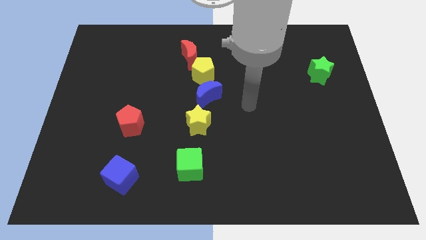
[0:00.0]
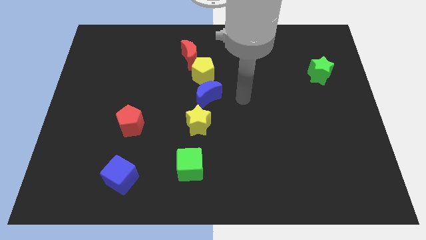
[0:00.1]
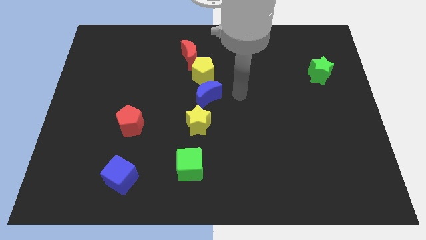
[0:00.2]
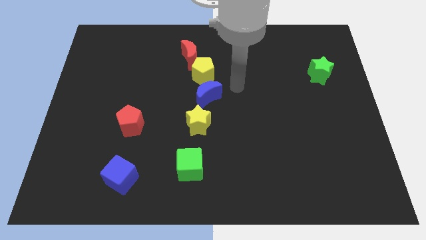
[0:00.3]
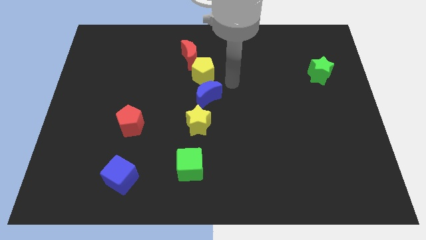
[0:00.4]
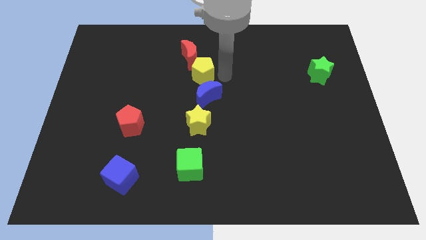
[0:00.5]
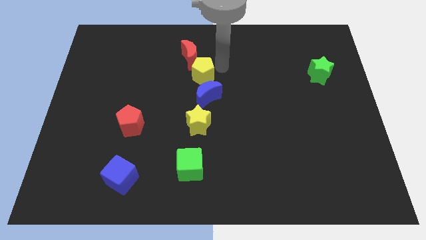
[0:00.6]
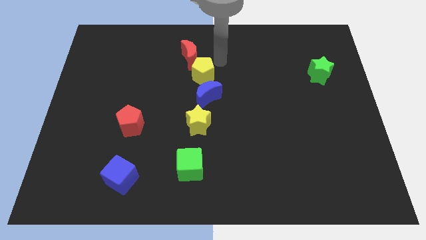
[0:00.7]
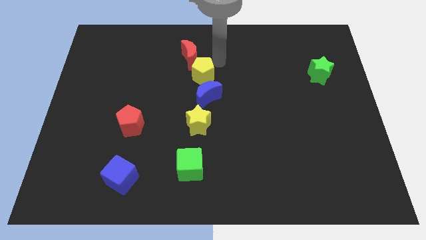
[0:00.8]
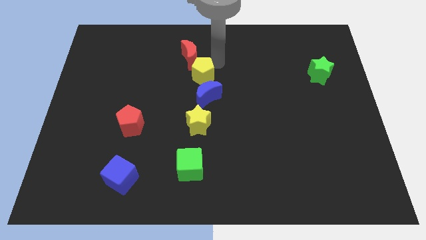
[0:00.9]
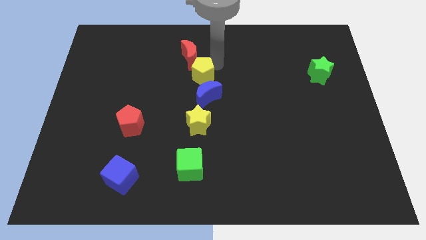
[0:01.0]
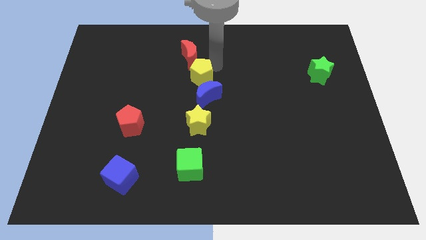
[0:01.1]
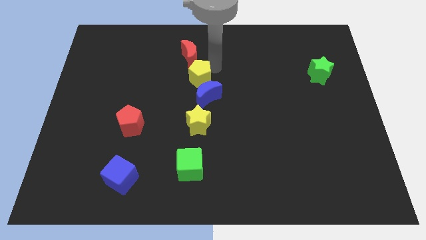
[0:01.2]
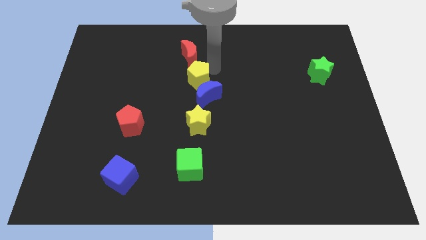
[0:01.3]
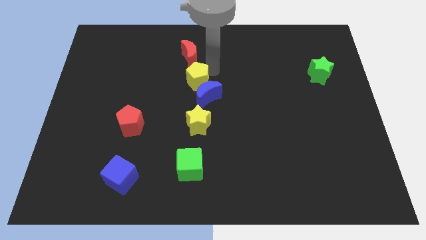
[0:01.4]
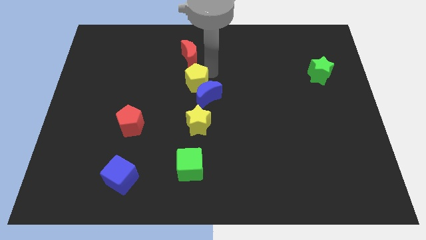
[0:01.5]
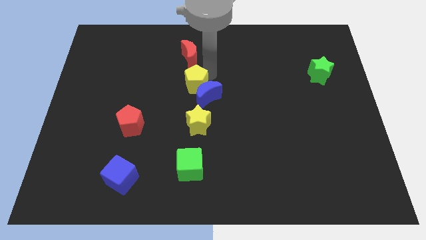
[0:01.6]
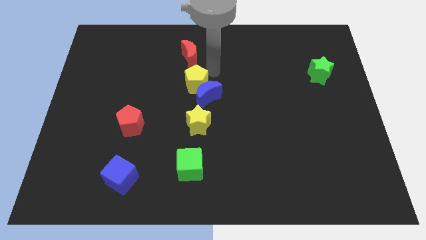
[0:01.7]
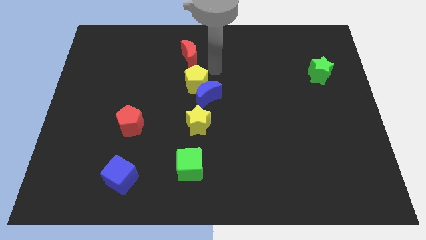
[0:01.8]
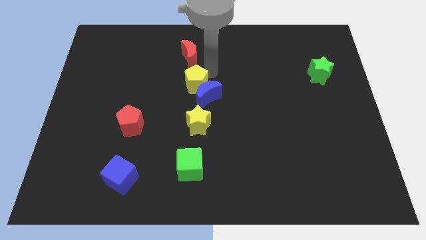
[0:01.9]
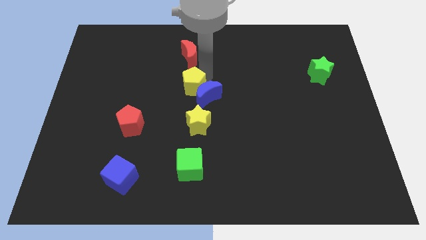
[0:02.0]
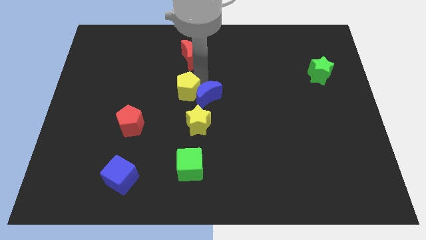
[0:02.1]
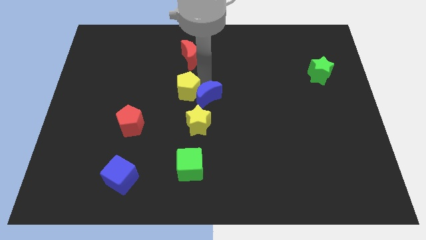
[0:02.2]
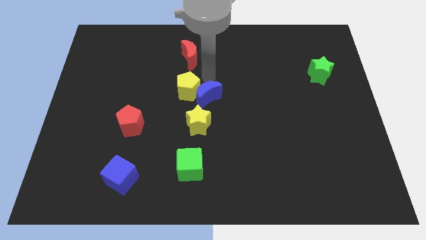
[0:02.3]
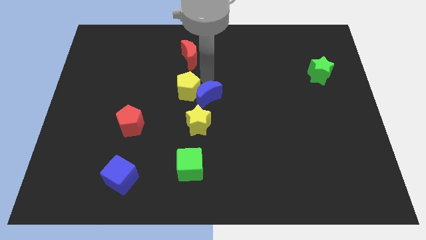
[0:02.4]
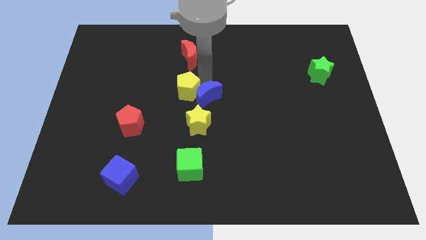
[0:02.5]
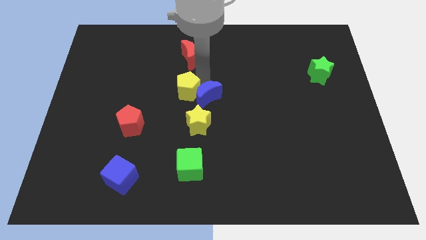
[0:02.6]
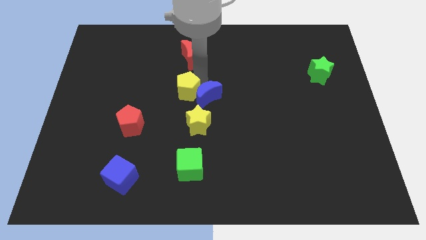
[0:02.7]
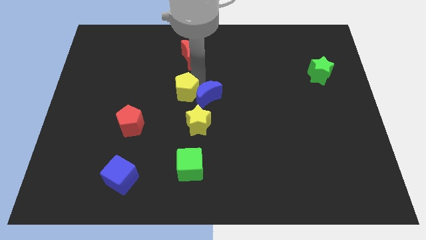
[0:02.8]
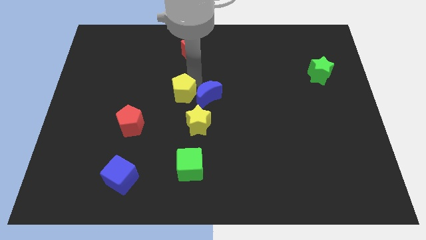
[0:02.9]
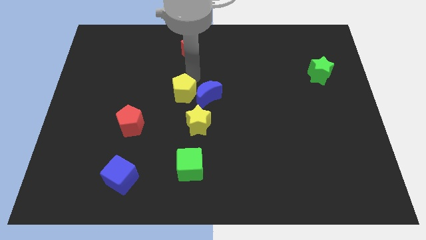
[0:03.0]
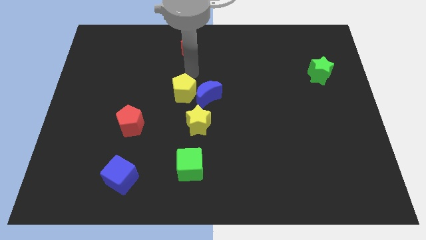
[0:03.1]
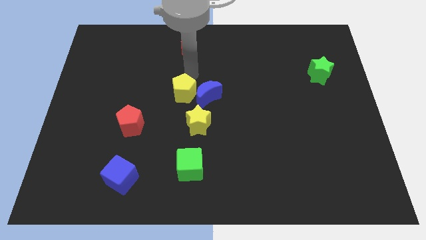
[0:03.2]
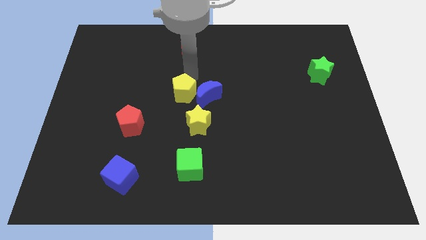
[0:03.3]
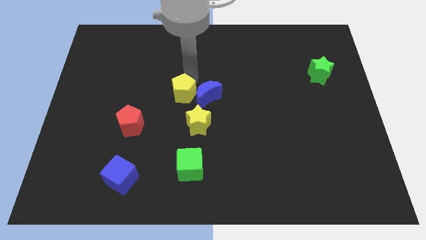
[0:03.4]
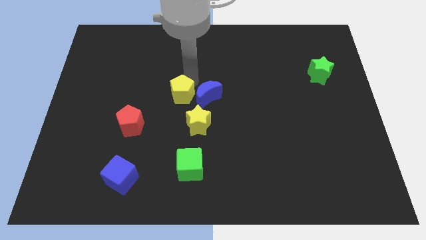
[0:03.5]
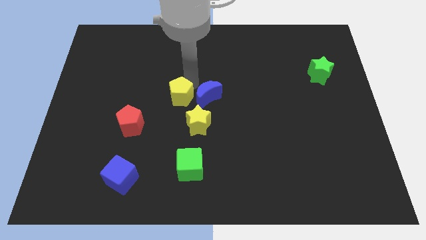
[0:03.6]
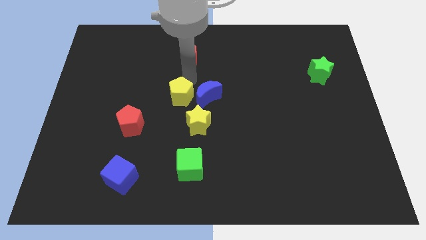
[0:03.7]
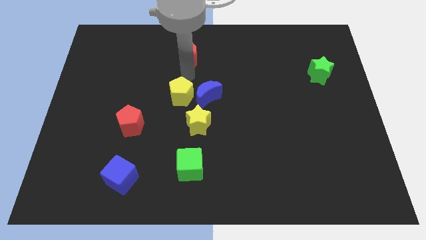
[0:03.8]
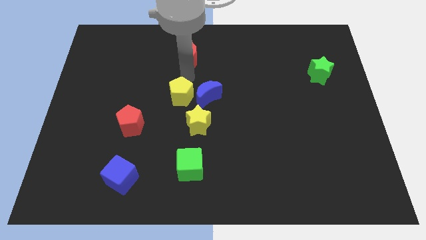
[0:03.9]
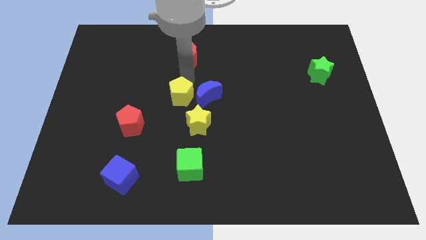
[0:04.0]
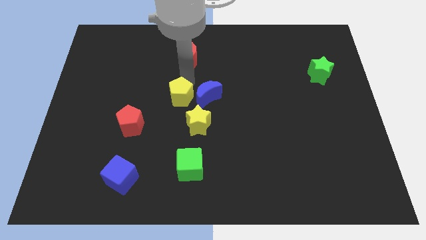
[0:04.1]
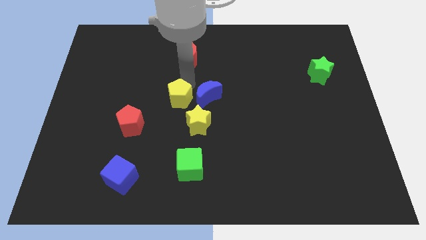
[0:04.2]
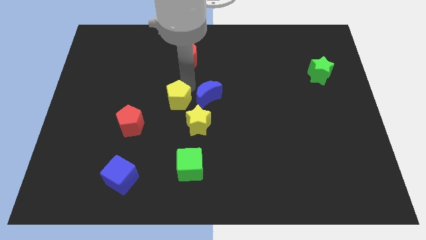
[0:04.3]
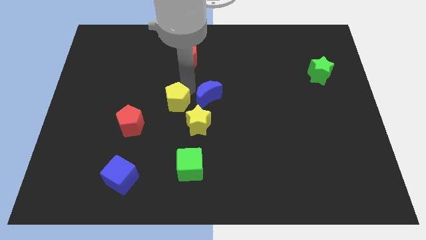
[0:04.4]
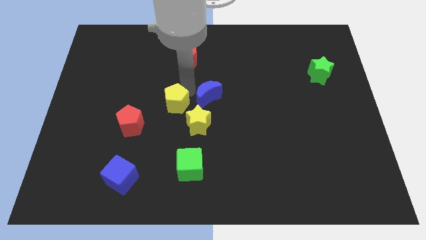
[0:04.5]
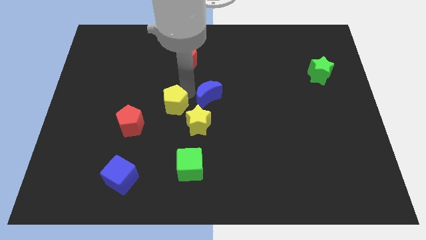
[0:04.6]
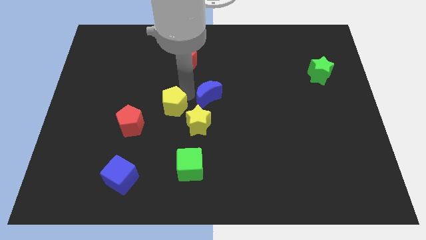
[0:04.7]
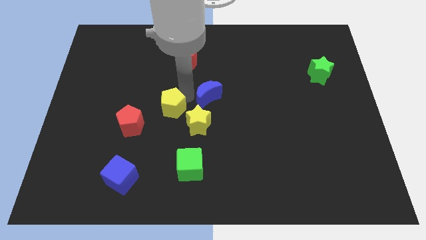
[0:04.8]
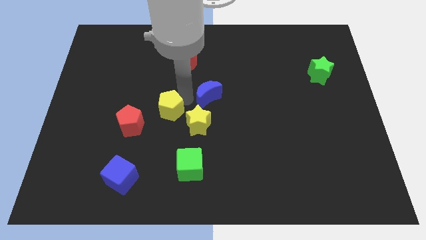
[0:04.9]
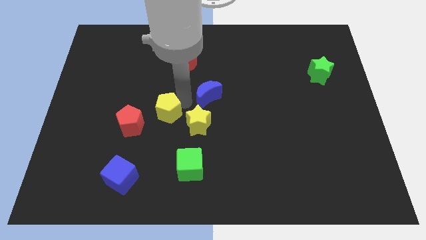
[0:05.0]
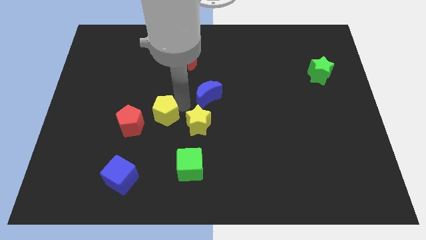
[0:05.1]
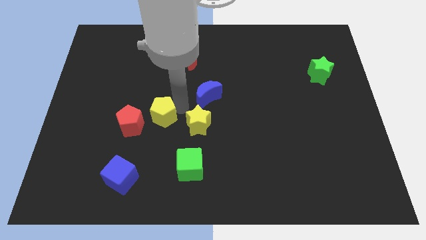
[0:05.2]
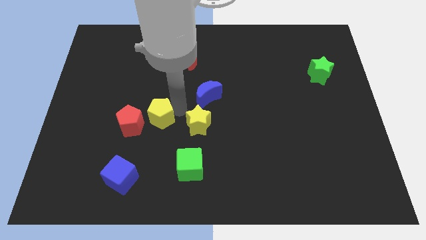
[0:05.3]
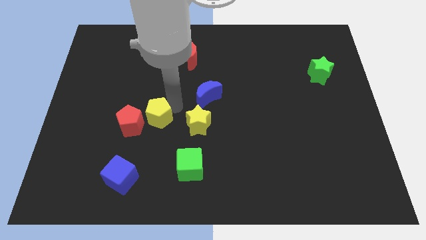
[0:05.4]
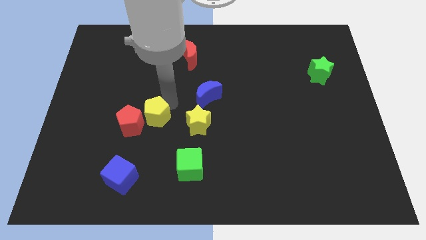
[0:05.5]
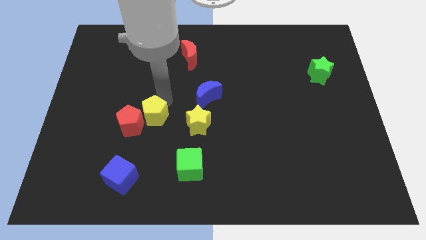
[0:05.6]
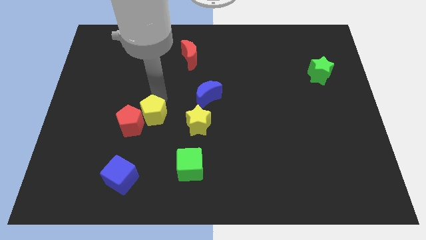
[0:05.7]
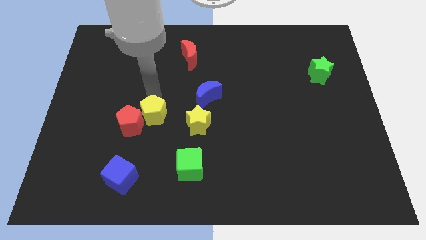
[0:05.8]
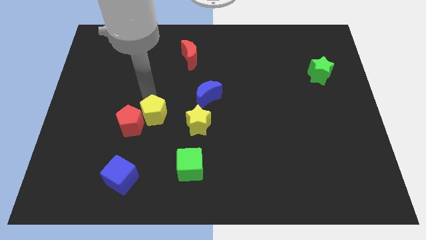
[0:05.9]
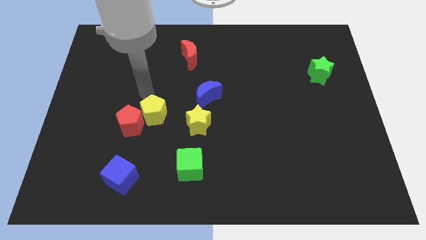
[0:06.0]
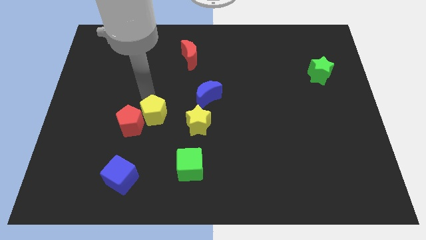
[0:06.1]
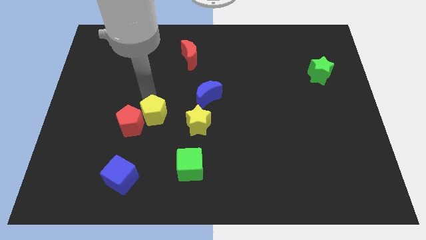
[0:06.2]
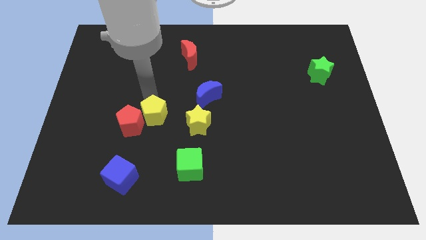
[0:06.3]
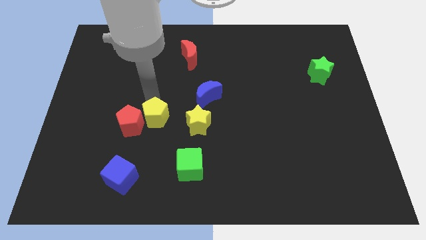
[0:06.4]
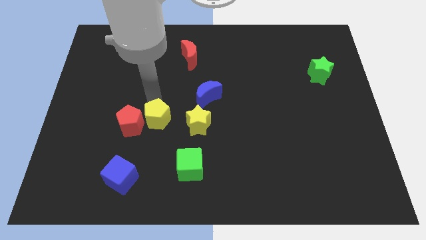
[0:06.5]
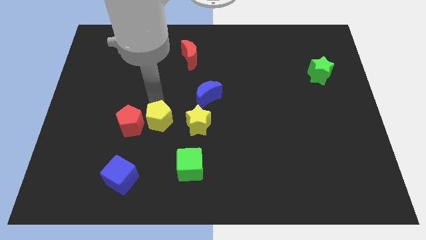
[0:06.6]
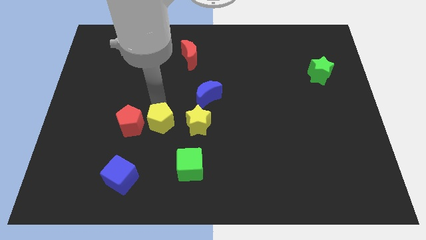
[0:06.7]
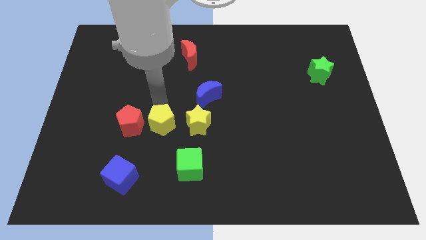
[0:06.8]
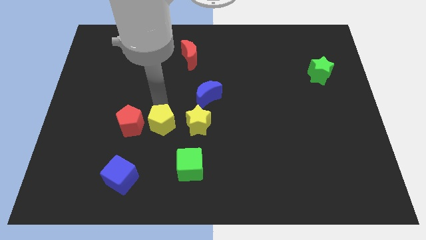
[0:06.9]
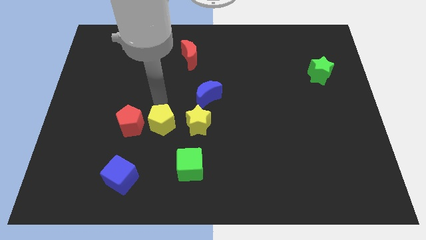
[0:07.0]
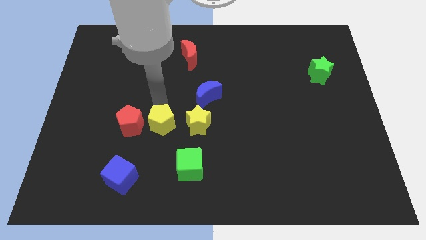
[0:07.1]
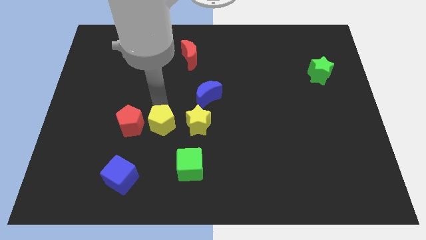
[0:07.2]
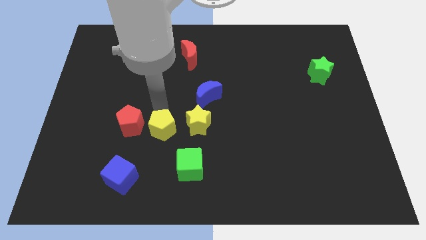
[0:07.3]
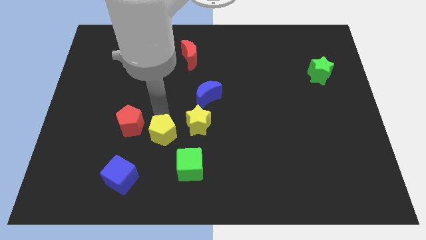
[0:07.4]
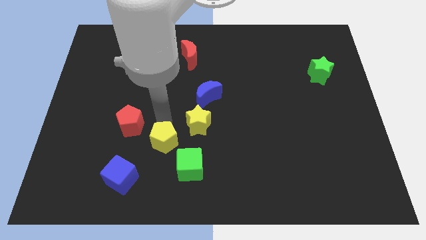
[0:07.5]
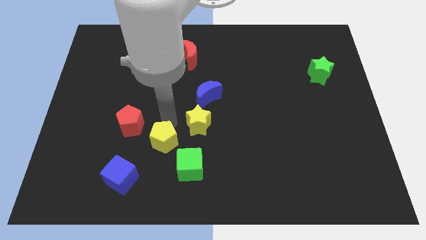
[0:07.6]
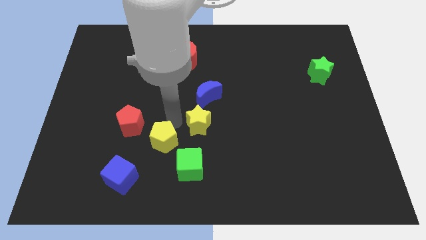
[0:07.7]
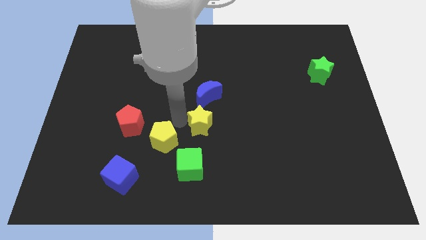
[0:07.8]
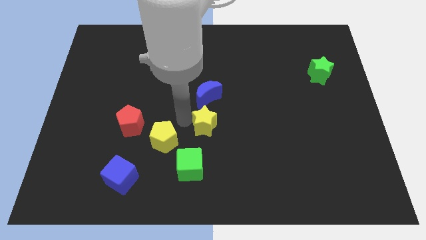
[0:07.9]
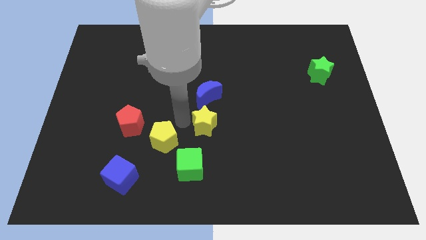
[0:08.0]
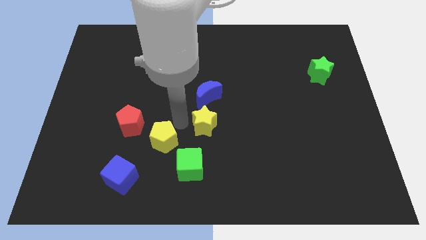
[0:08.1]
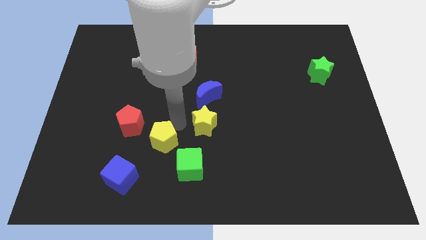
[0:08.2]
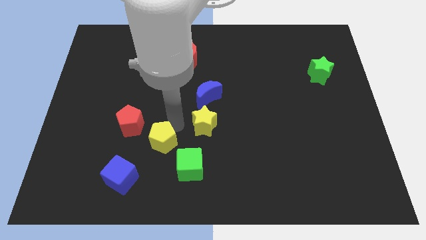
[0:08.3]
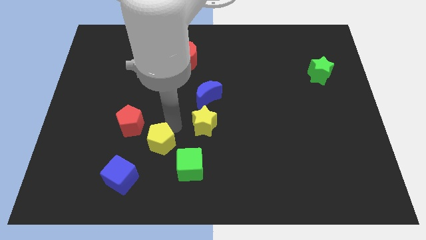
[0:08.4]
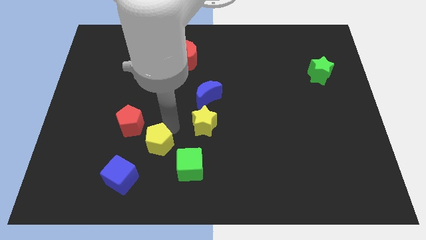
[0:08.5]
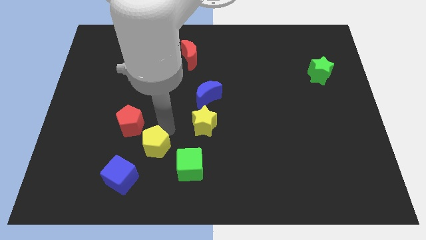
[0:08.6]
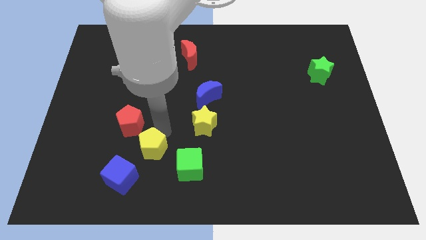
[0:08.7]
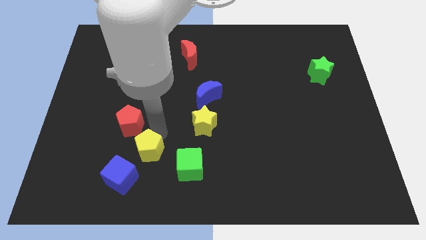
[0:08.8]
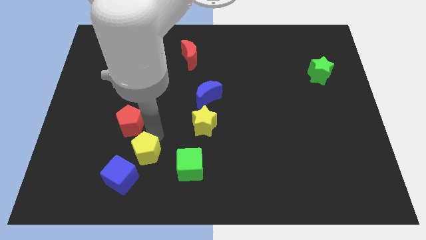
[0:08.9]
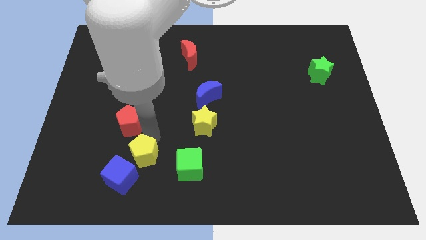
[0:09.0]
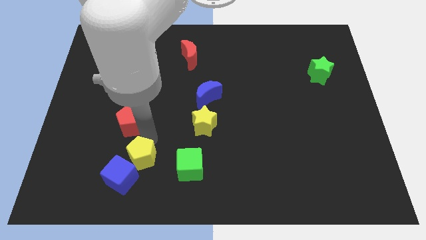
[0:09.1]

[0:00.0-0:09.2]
move the yellow pentagon close to the blue cube
